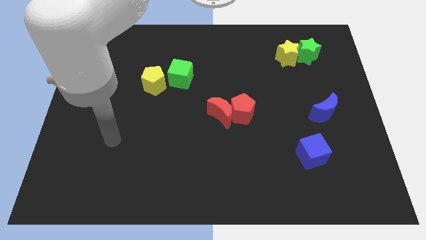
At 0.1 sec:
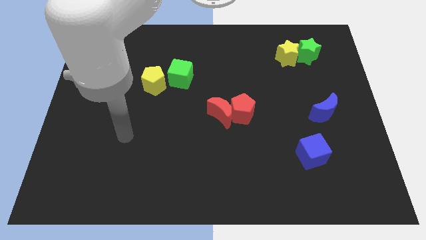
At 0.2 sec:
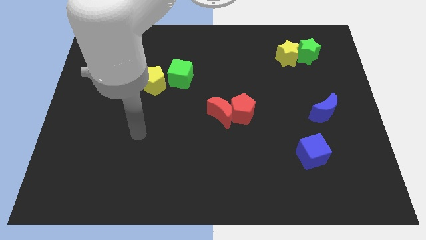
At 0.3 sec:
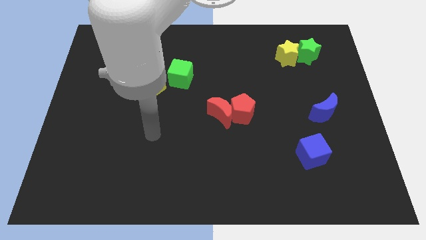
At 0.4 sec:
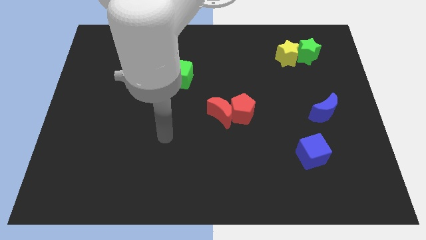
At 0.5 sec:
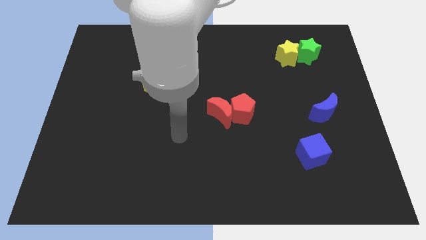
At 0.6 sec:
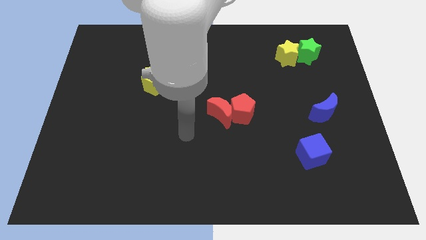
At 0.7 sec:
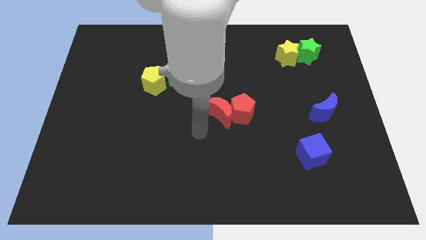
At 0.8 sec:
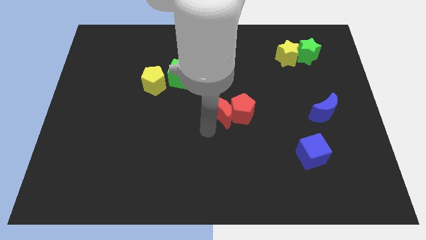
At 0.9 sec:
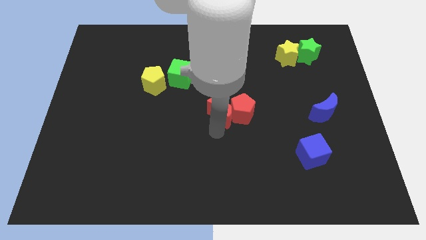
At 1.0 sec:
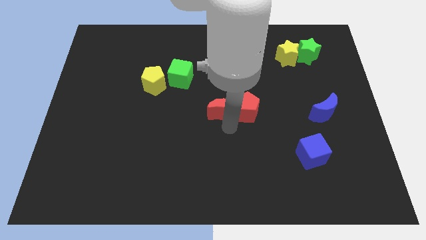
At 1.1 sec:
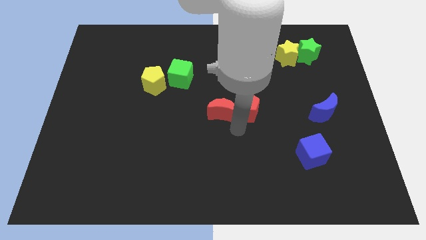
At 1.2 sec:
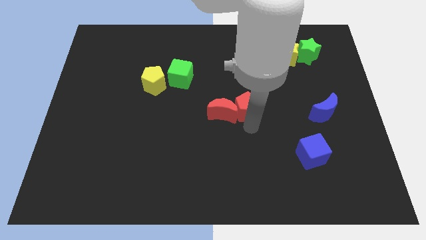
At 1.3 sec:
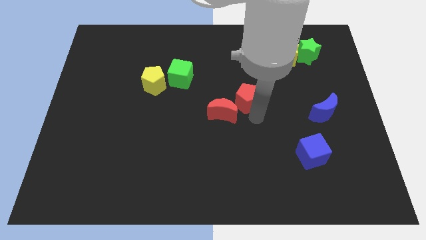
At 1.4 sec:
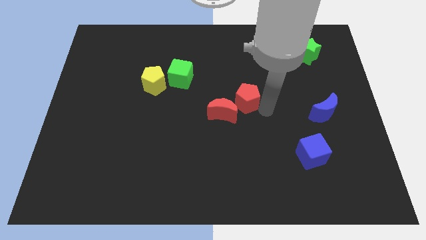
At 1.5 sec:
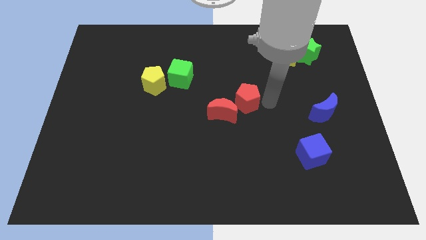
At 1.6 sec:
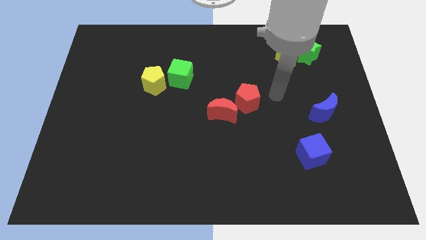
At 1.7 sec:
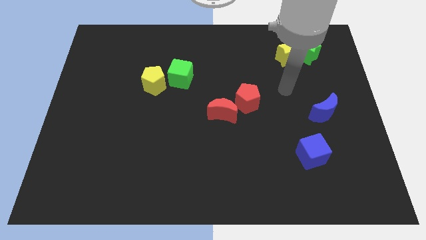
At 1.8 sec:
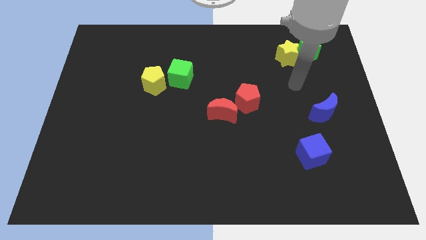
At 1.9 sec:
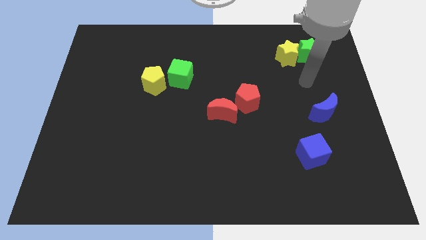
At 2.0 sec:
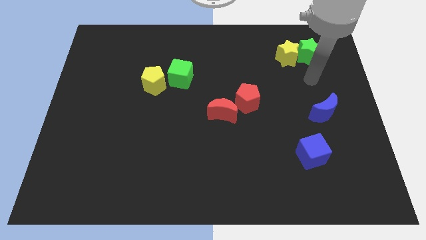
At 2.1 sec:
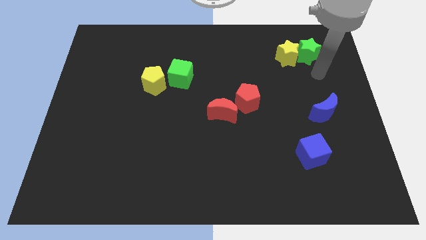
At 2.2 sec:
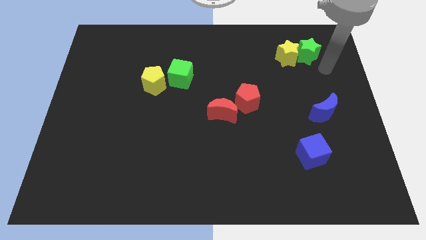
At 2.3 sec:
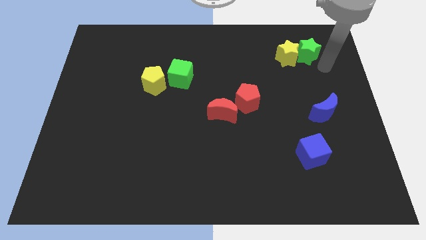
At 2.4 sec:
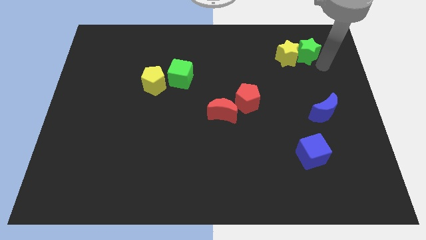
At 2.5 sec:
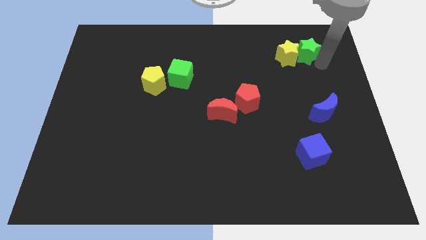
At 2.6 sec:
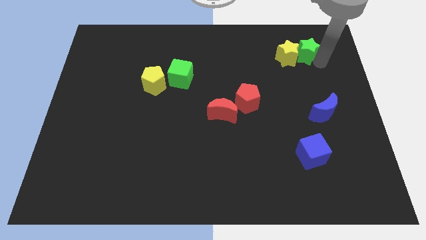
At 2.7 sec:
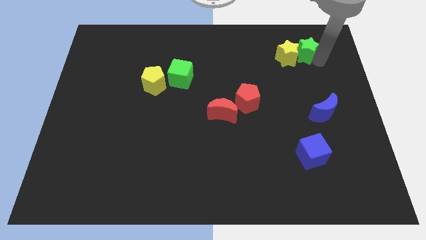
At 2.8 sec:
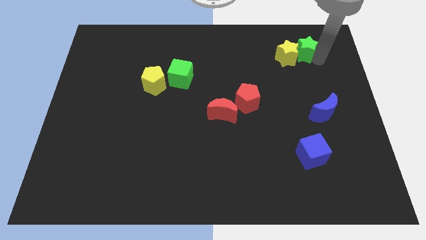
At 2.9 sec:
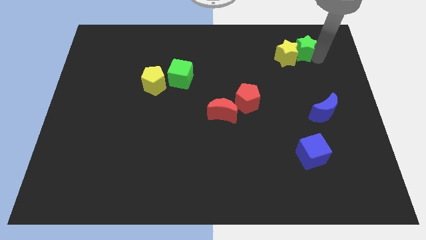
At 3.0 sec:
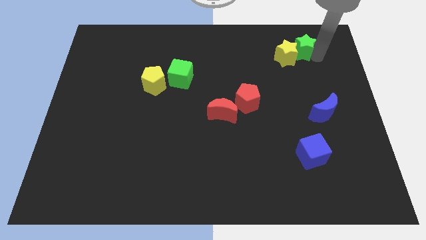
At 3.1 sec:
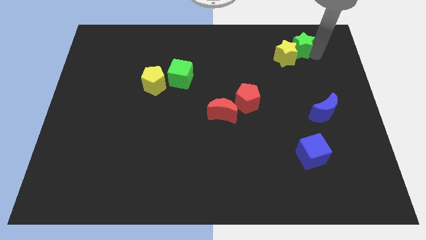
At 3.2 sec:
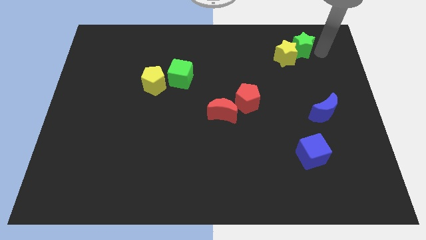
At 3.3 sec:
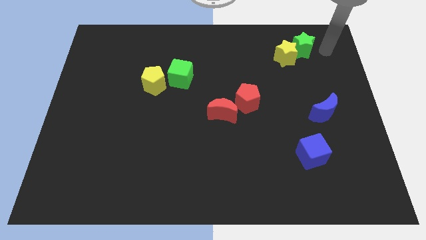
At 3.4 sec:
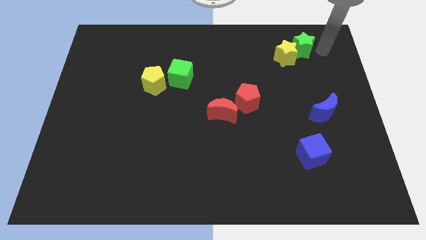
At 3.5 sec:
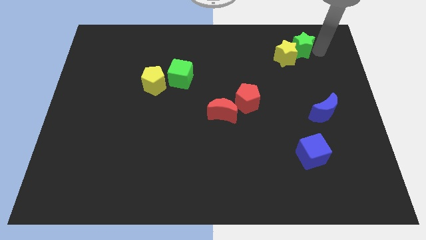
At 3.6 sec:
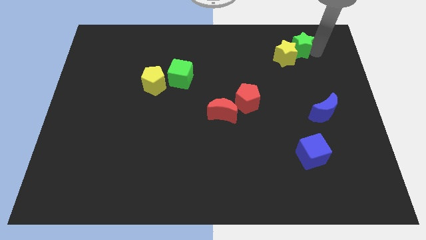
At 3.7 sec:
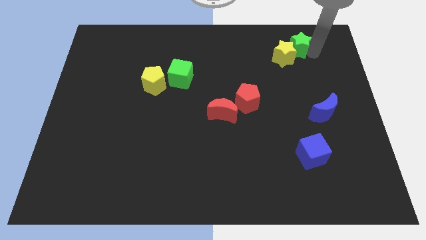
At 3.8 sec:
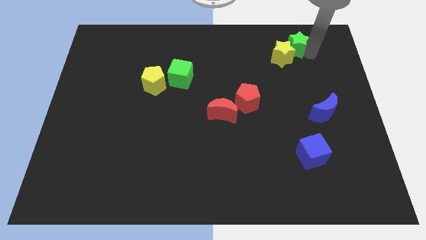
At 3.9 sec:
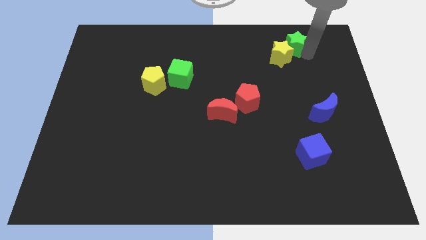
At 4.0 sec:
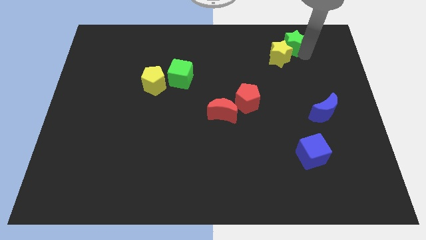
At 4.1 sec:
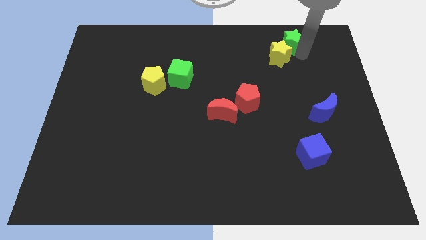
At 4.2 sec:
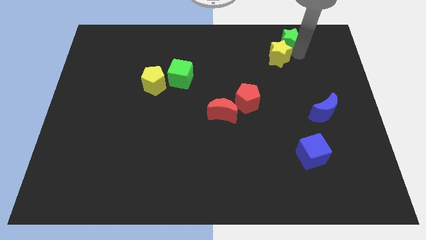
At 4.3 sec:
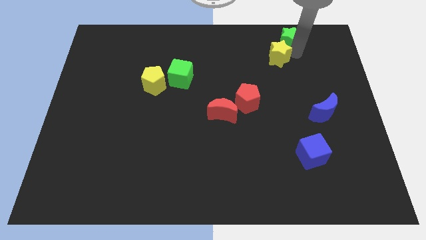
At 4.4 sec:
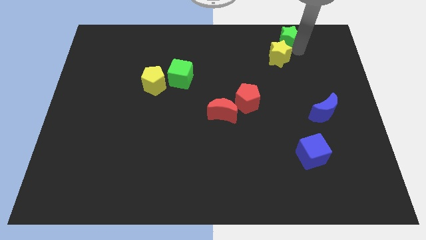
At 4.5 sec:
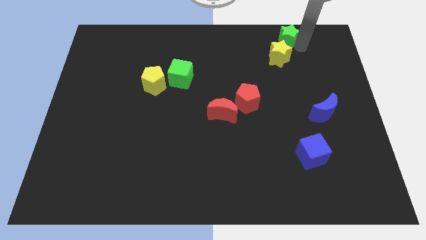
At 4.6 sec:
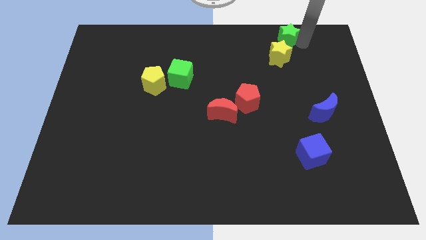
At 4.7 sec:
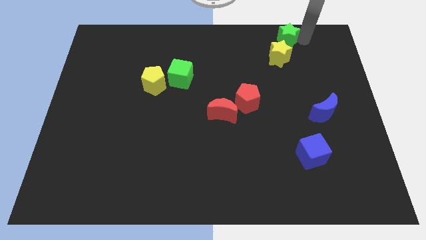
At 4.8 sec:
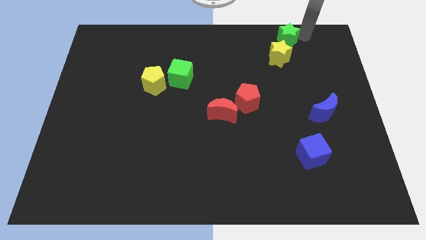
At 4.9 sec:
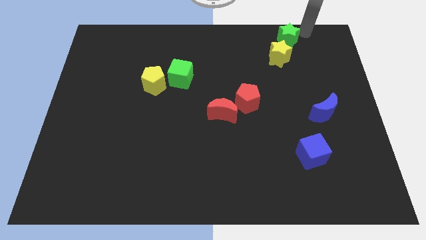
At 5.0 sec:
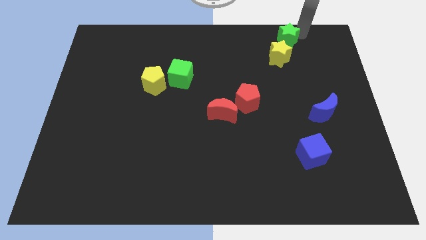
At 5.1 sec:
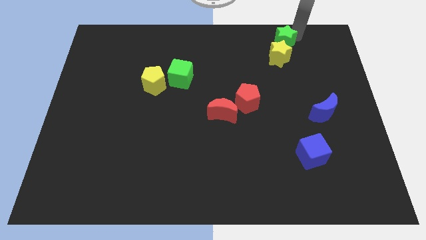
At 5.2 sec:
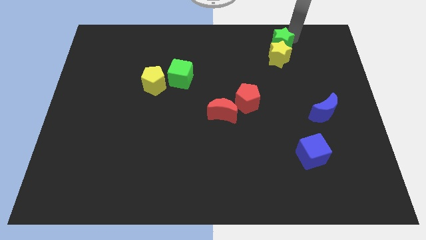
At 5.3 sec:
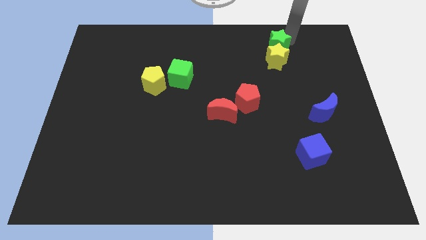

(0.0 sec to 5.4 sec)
move the green star left a little bit

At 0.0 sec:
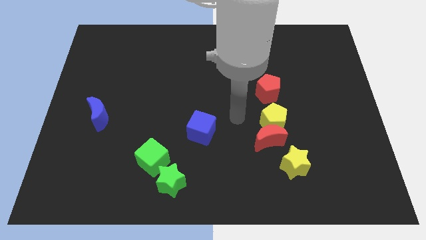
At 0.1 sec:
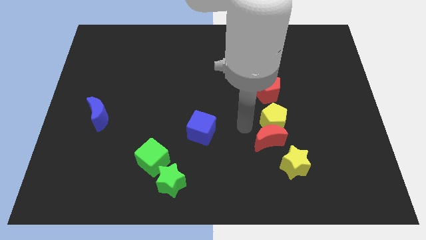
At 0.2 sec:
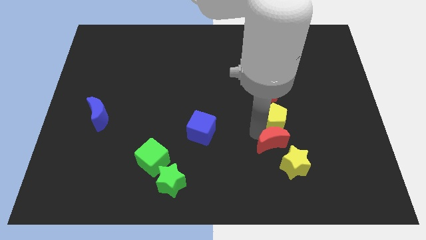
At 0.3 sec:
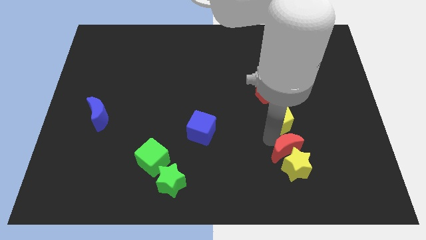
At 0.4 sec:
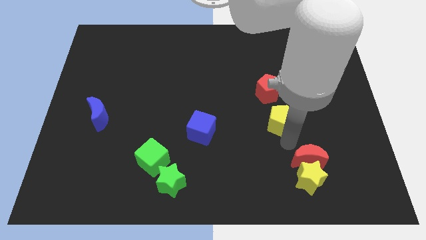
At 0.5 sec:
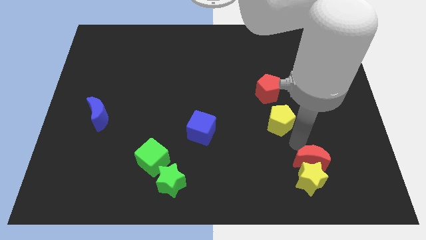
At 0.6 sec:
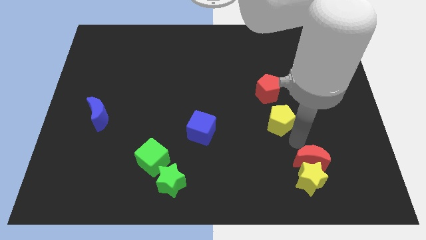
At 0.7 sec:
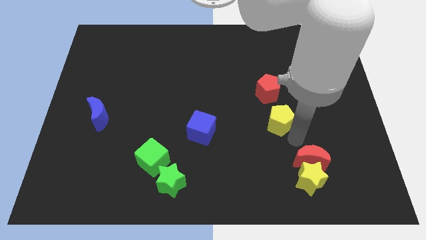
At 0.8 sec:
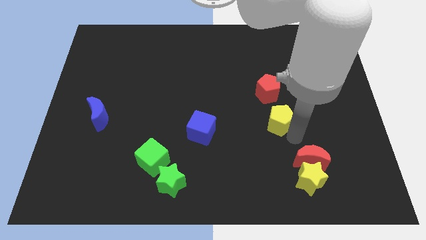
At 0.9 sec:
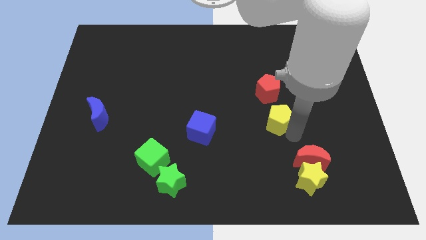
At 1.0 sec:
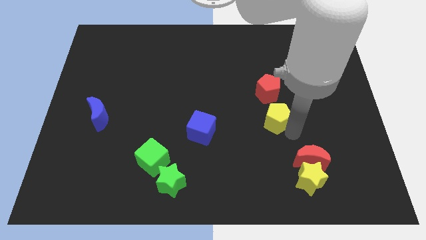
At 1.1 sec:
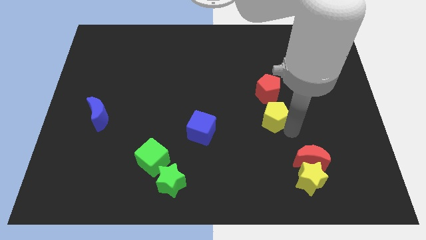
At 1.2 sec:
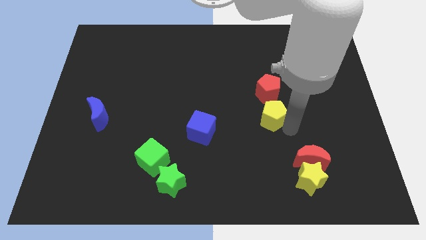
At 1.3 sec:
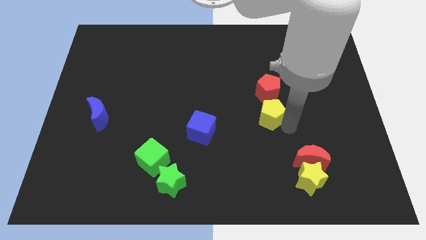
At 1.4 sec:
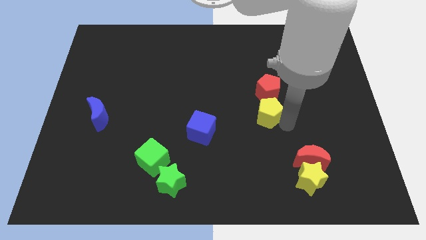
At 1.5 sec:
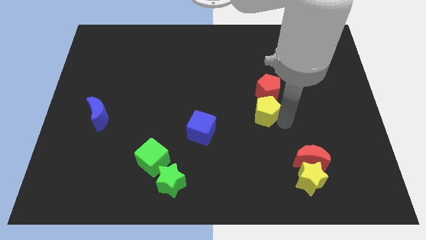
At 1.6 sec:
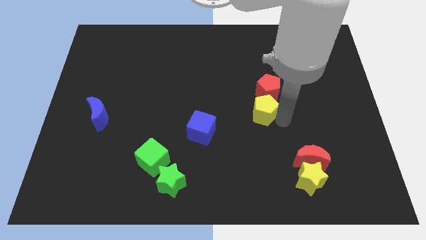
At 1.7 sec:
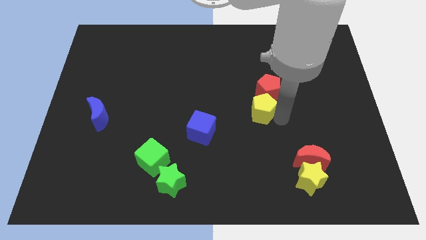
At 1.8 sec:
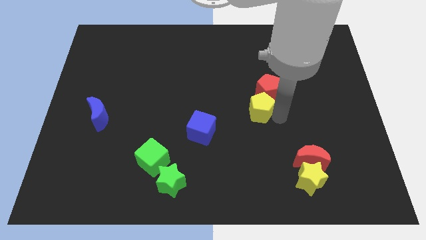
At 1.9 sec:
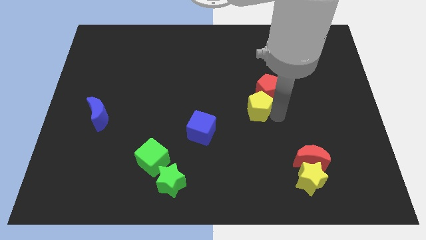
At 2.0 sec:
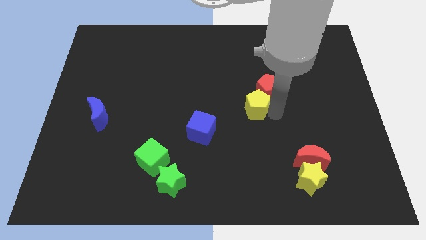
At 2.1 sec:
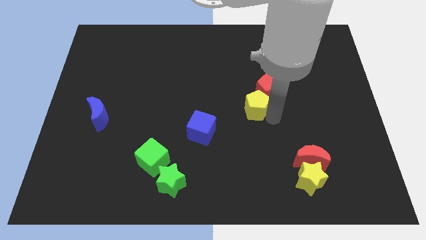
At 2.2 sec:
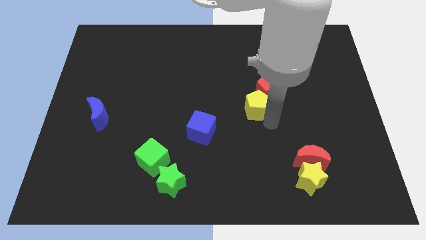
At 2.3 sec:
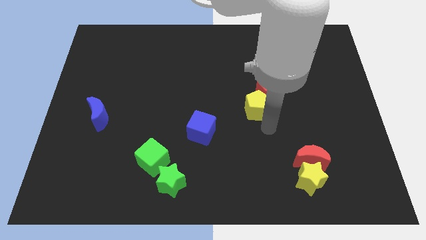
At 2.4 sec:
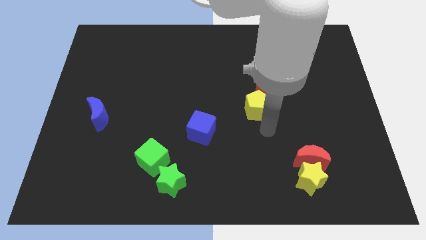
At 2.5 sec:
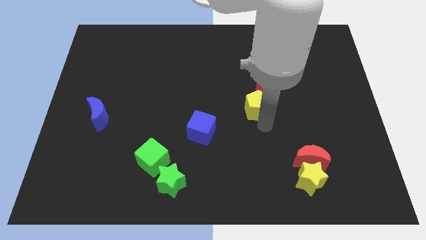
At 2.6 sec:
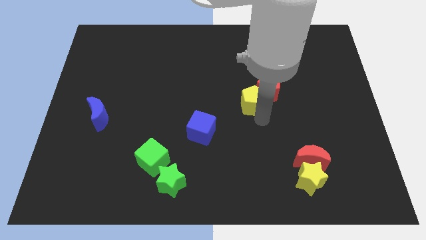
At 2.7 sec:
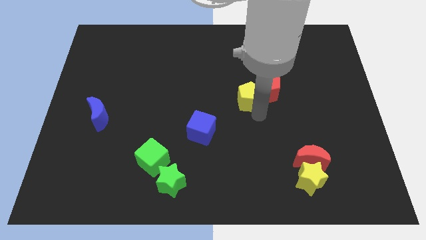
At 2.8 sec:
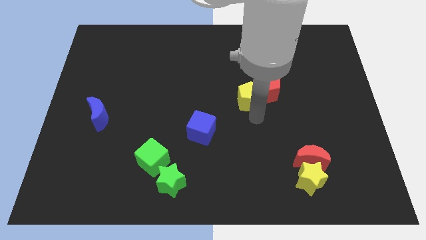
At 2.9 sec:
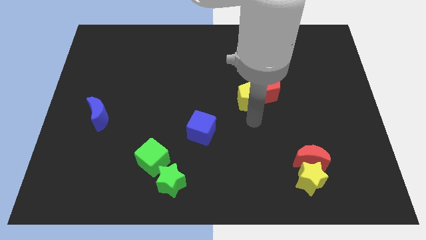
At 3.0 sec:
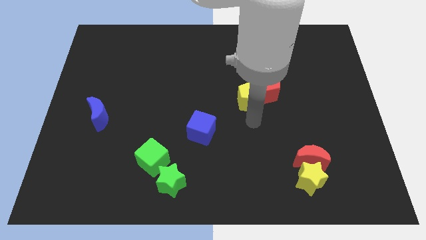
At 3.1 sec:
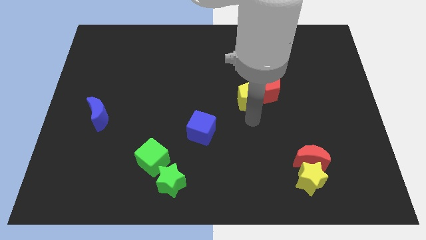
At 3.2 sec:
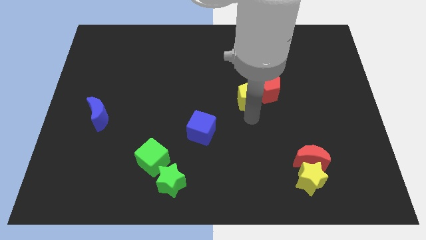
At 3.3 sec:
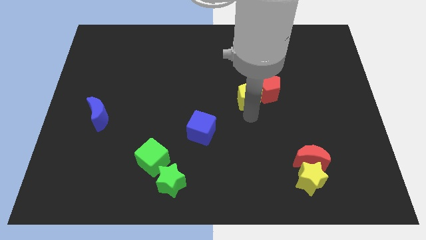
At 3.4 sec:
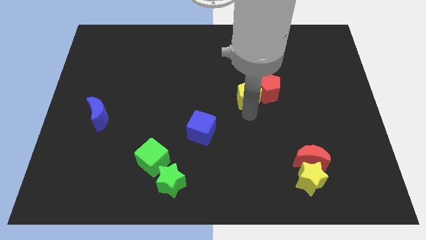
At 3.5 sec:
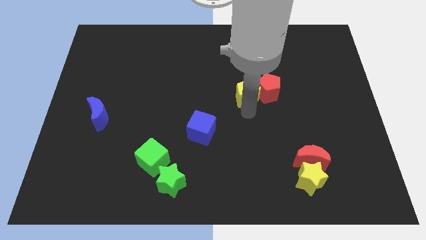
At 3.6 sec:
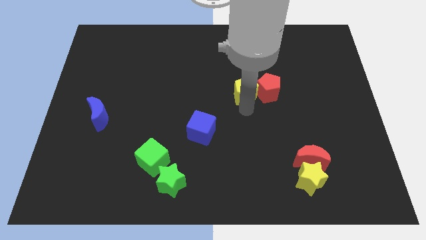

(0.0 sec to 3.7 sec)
move the yellow pentagon up a little bit
